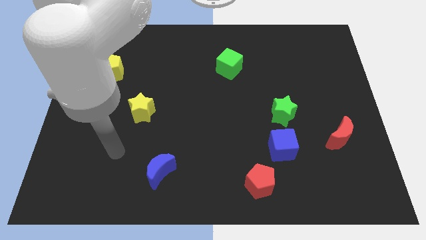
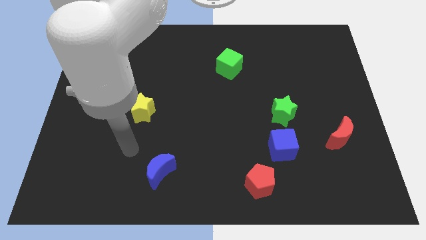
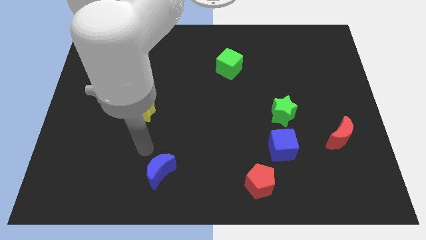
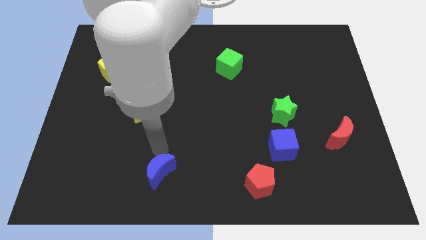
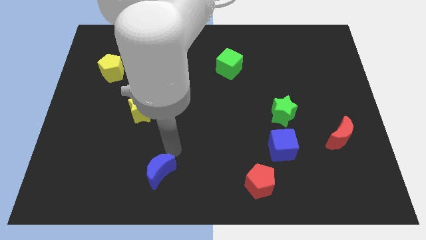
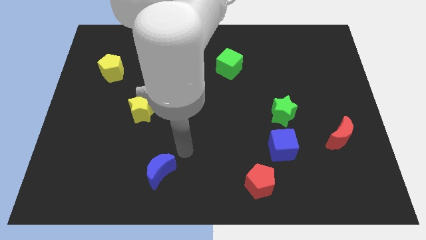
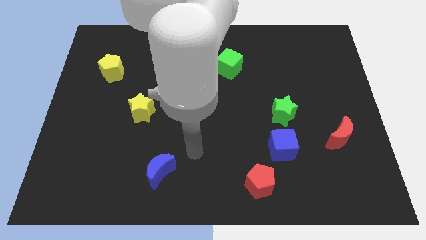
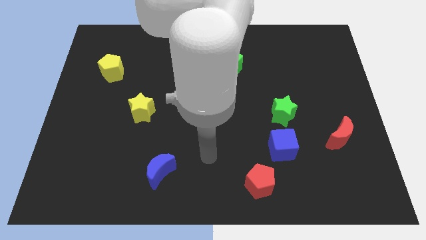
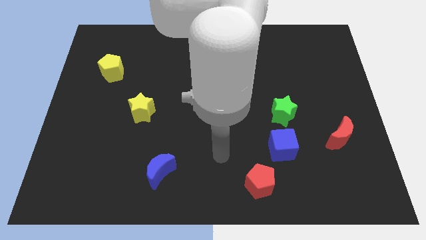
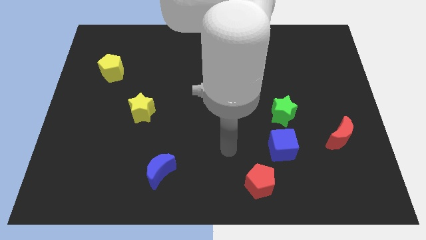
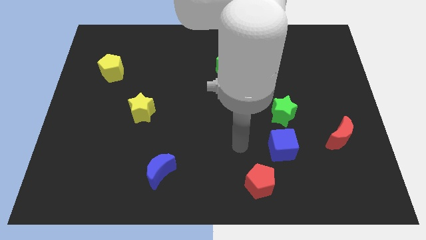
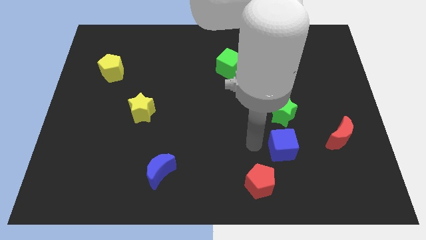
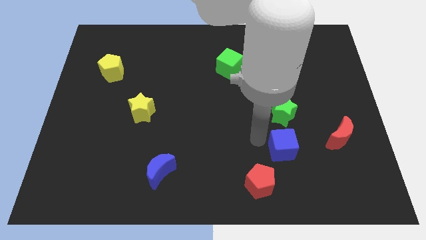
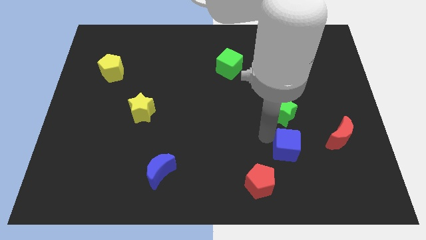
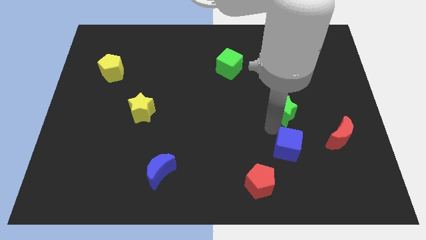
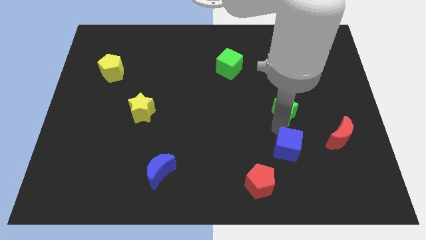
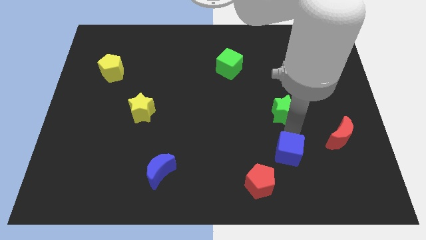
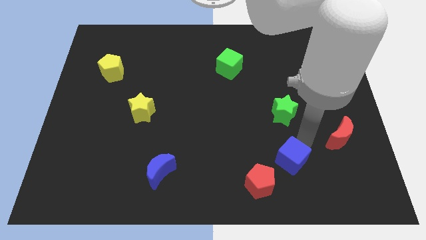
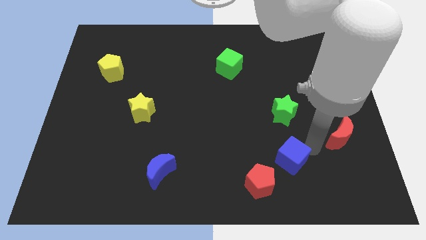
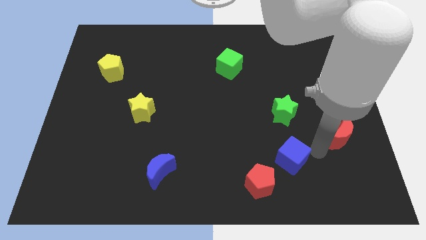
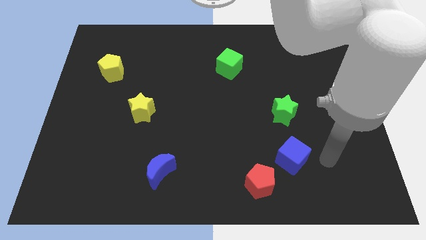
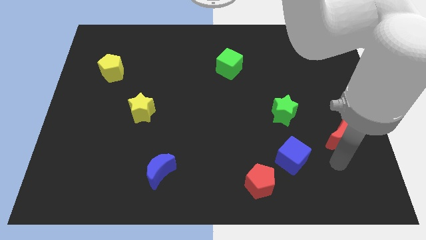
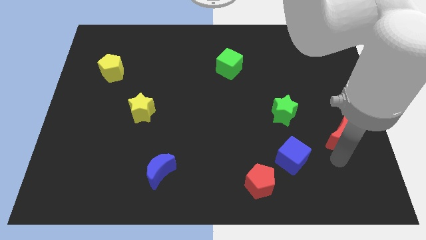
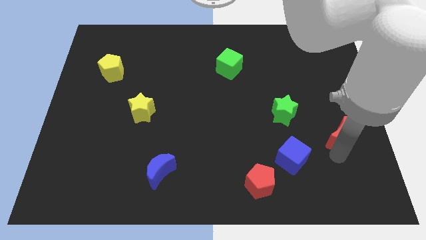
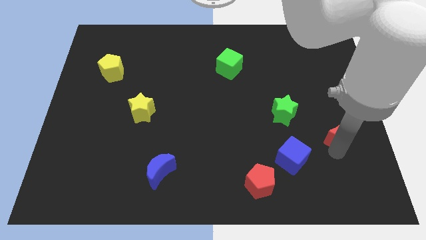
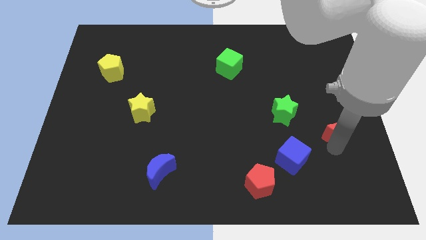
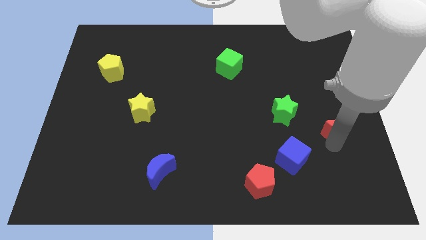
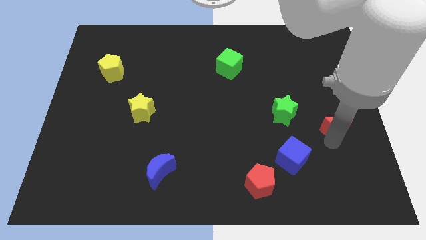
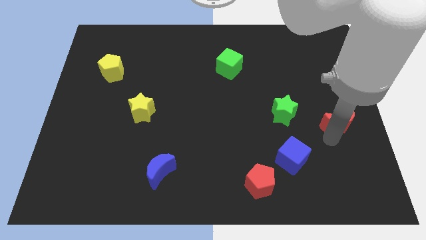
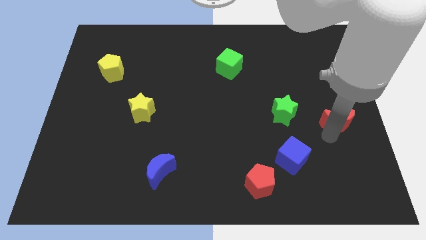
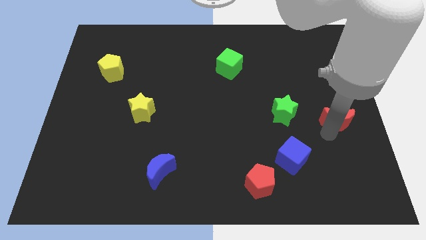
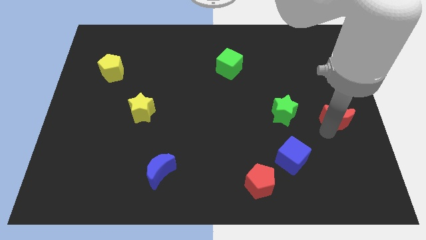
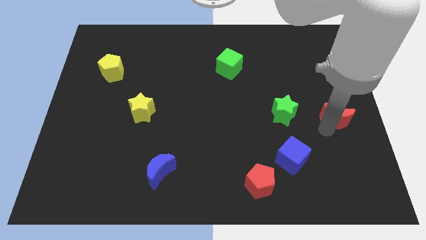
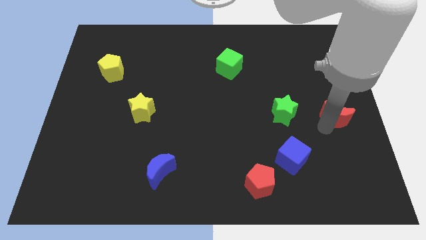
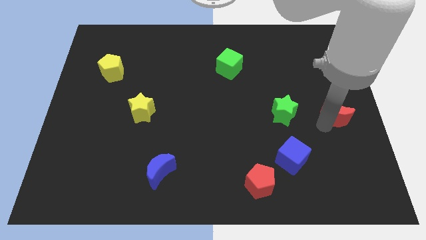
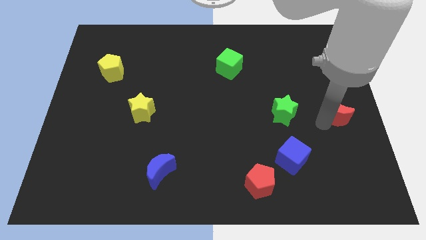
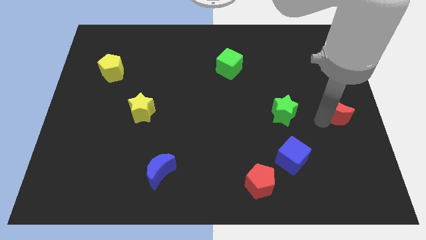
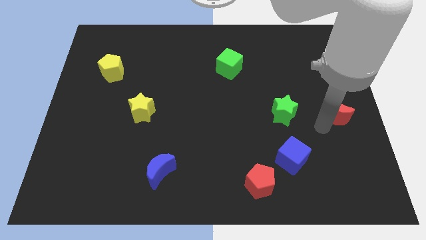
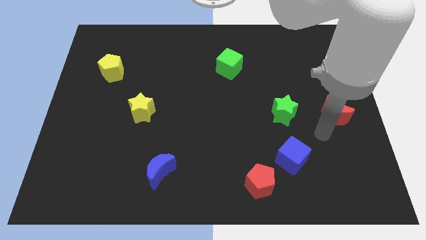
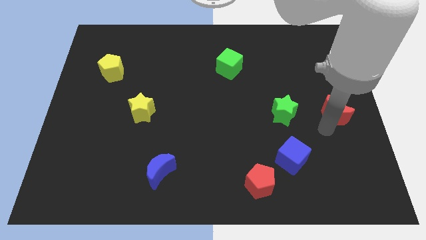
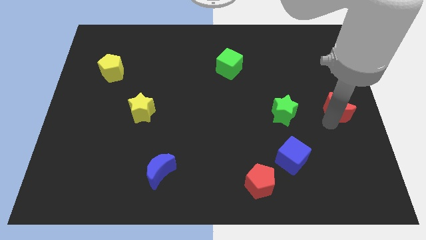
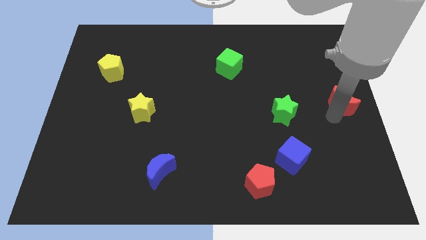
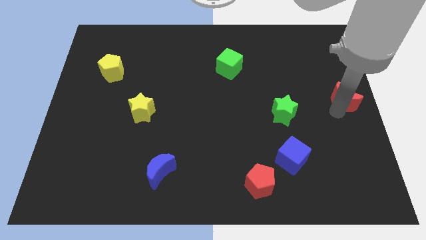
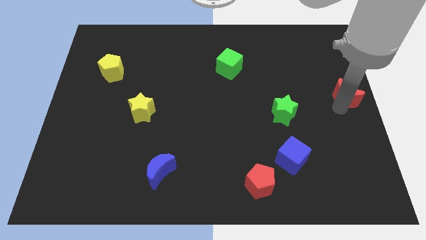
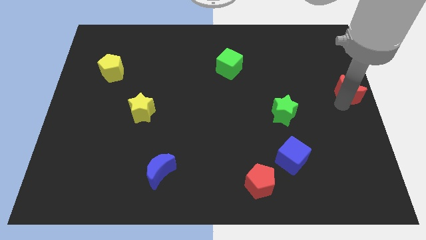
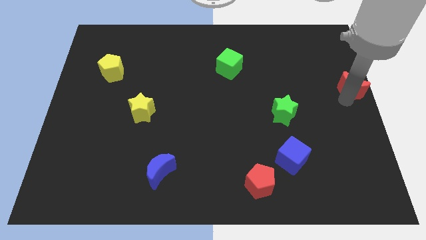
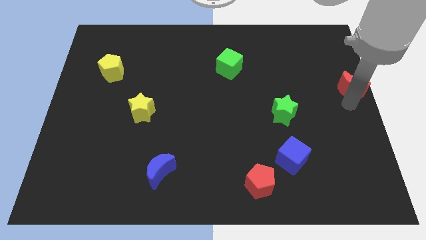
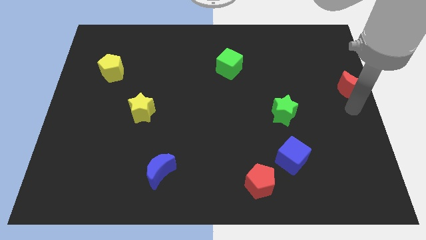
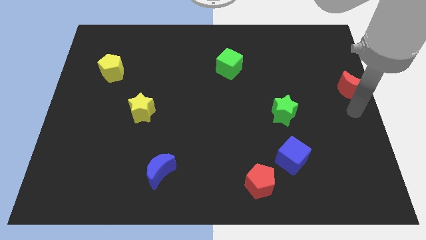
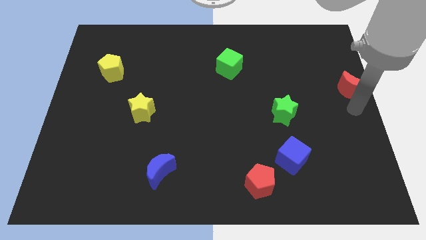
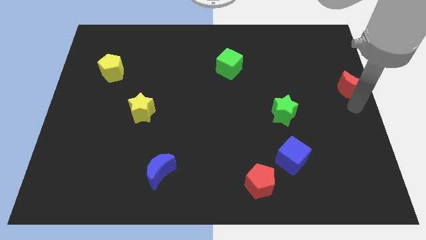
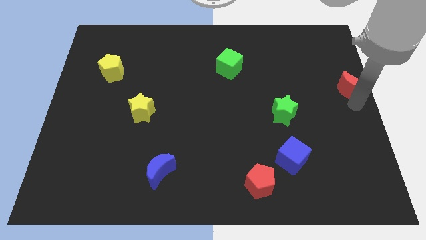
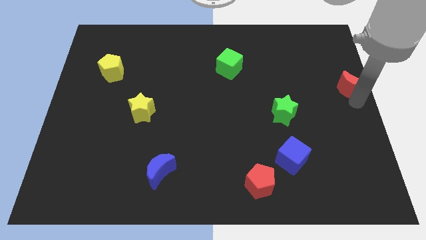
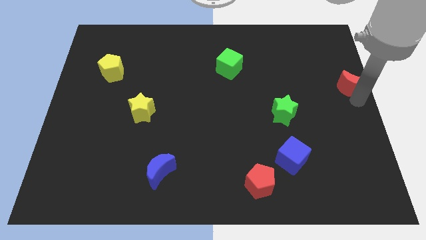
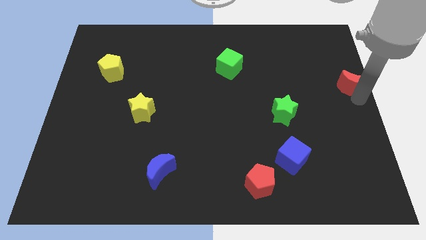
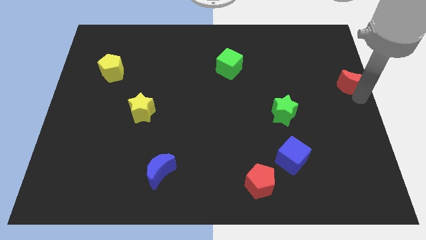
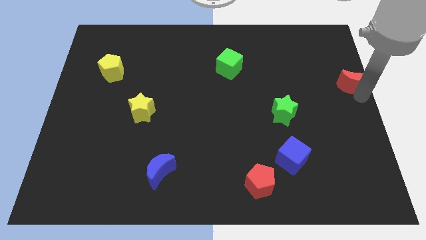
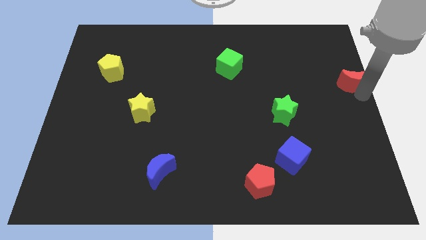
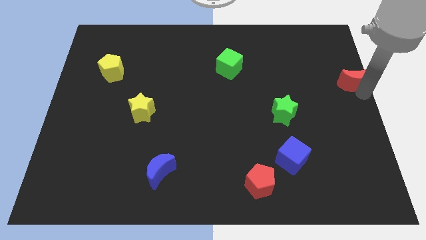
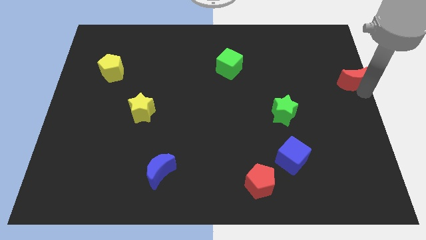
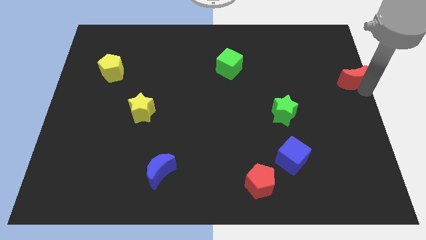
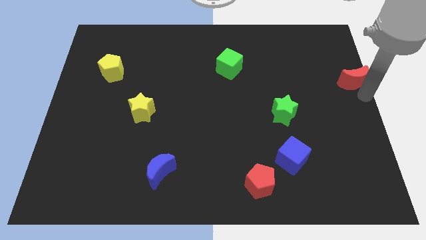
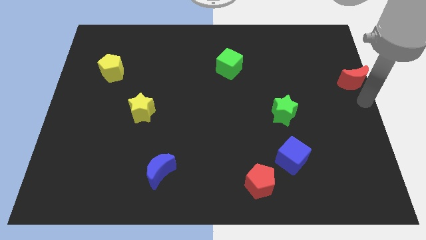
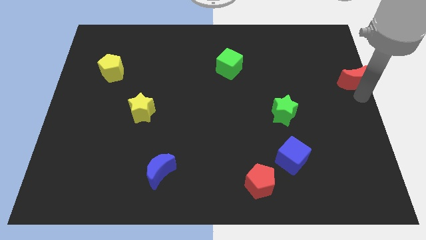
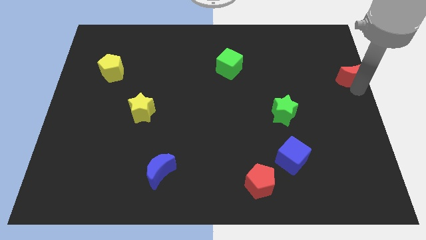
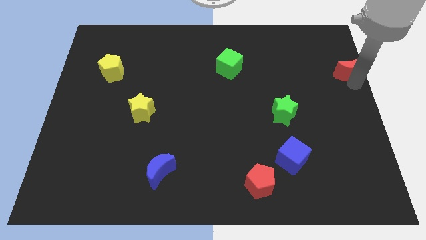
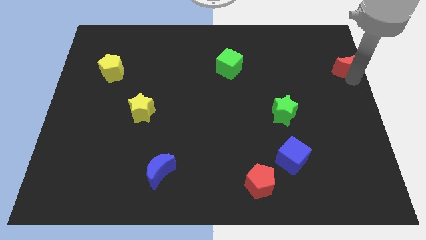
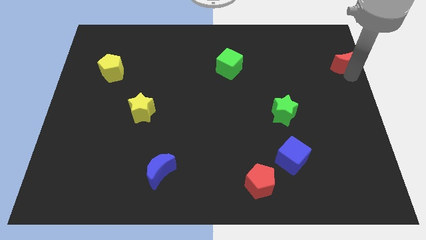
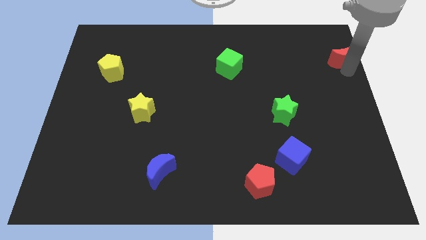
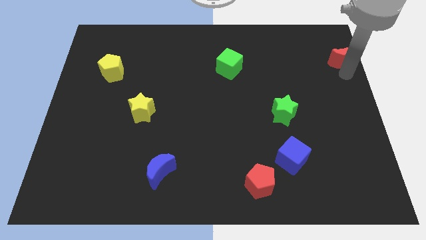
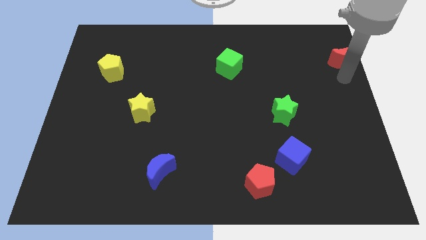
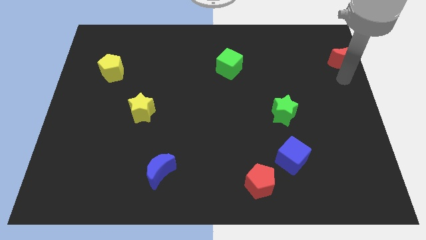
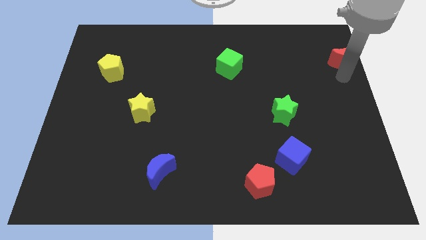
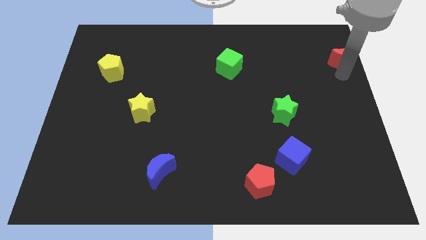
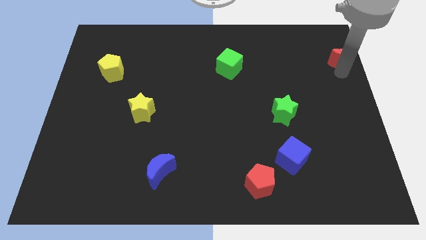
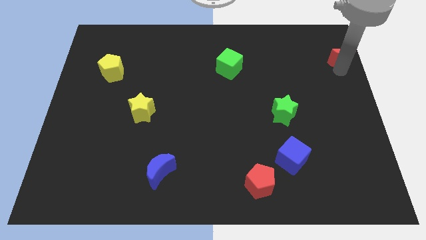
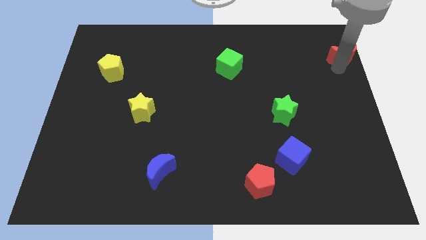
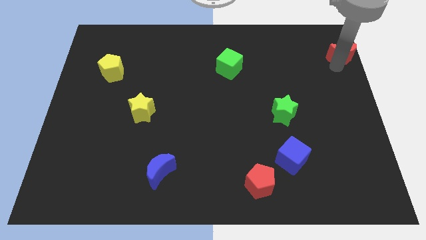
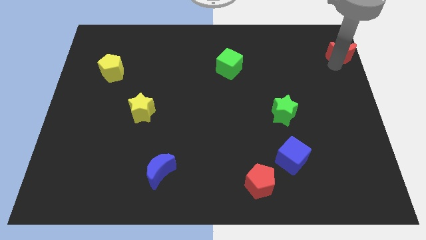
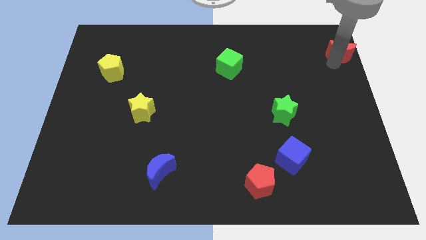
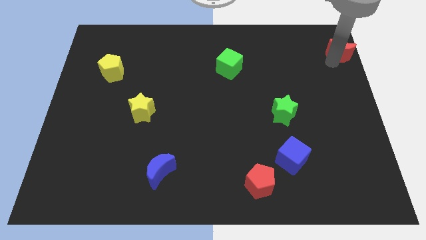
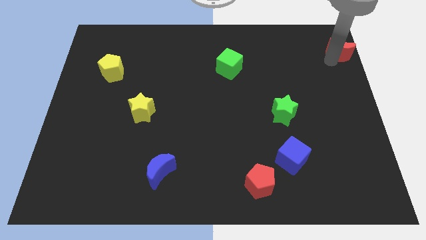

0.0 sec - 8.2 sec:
push the red moon to the upper right corner
